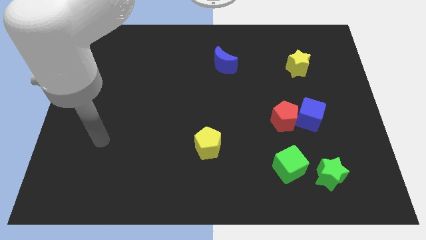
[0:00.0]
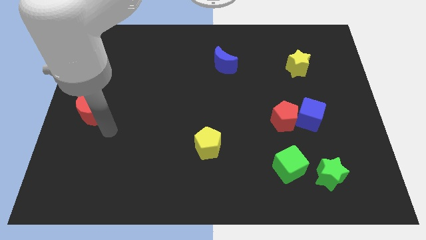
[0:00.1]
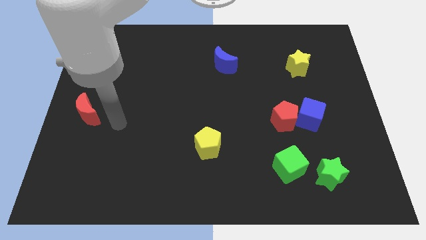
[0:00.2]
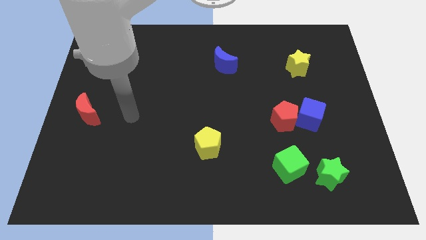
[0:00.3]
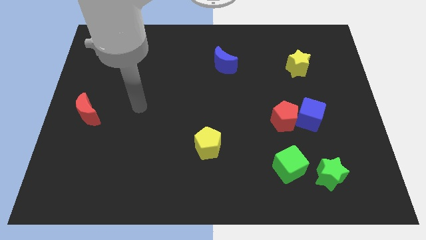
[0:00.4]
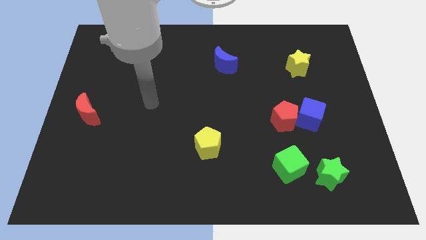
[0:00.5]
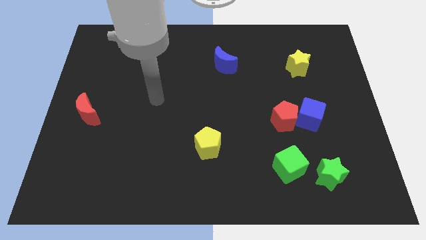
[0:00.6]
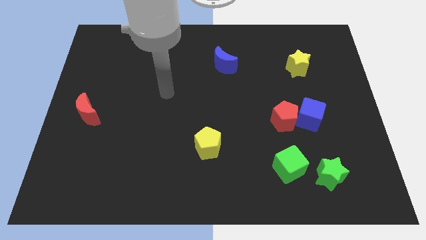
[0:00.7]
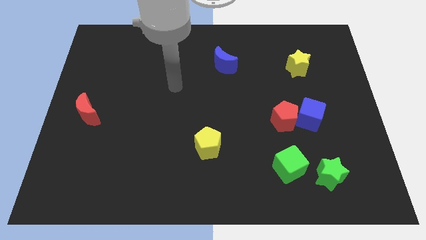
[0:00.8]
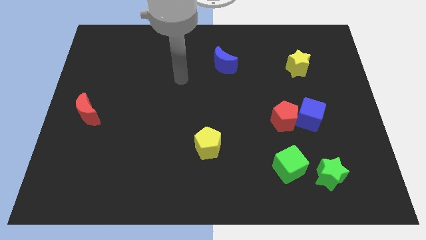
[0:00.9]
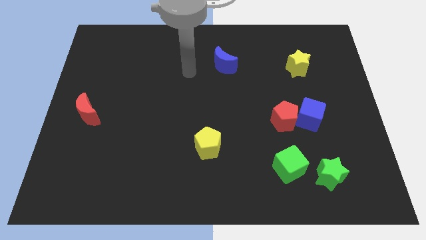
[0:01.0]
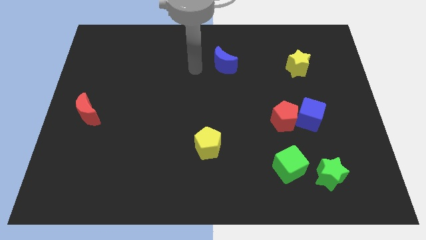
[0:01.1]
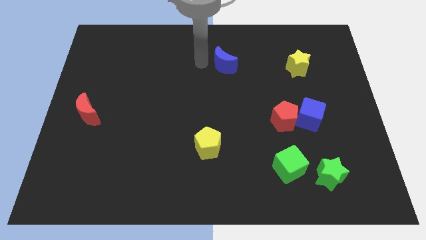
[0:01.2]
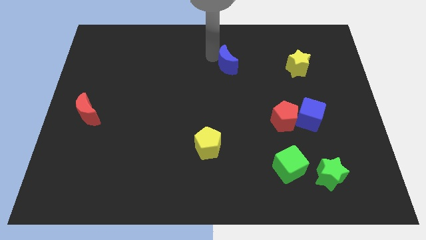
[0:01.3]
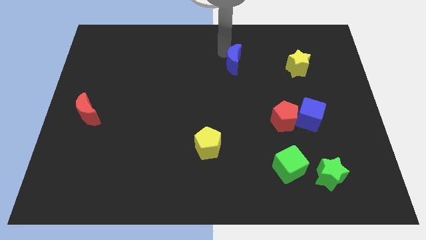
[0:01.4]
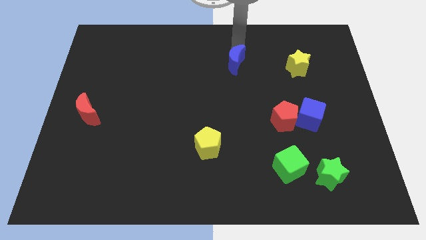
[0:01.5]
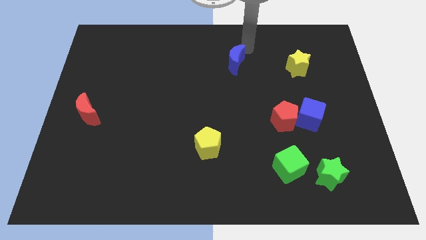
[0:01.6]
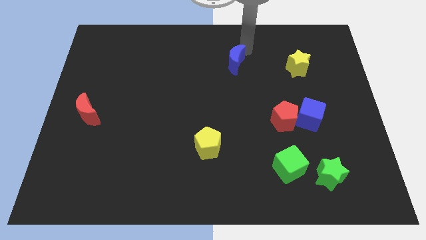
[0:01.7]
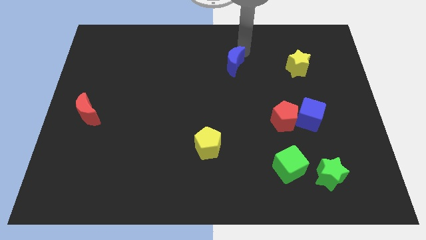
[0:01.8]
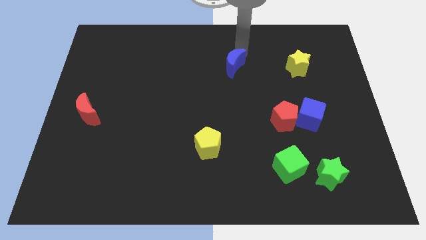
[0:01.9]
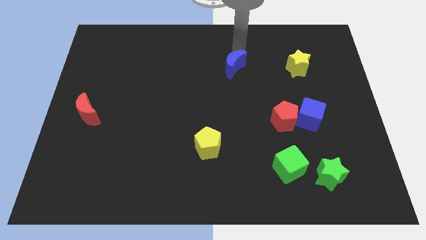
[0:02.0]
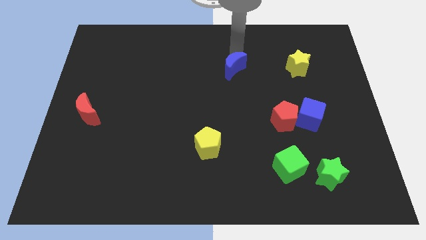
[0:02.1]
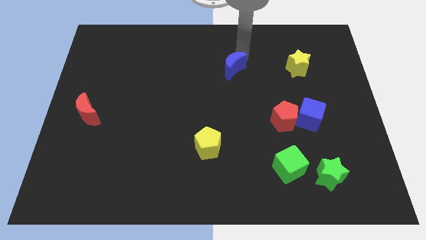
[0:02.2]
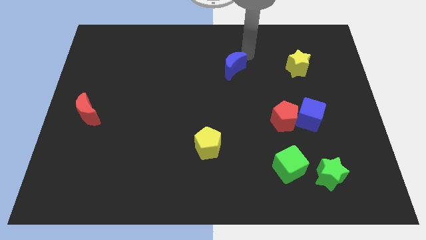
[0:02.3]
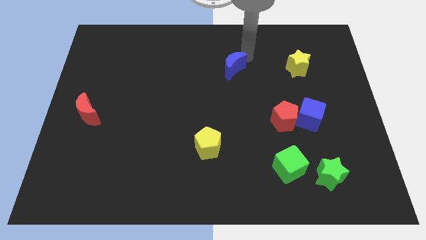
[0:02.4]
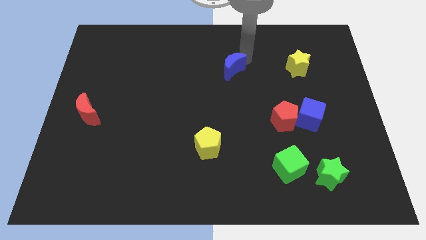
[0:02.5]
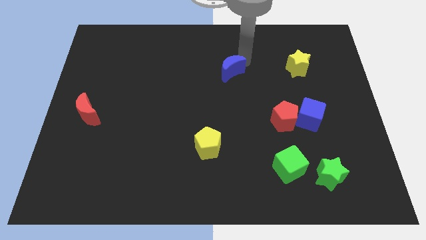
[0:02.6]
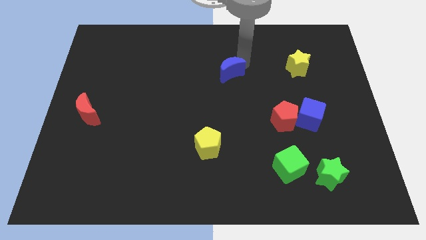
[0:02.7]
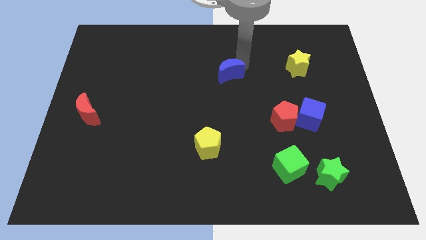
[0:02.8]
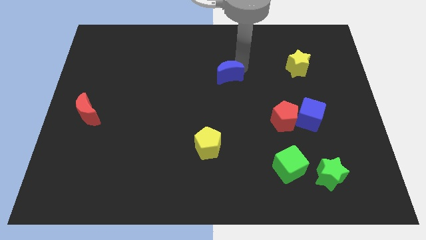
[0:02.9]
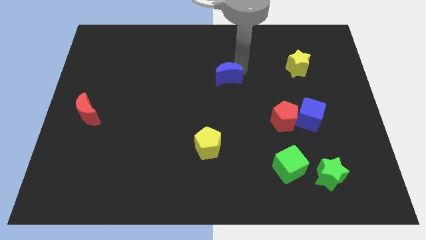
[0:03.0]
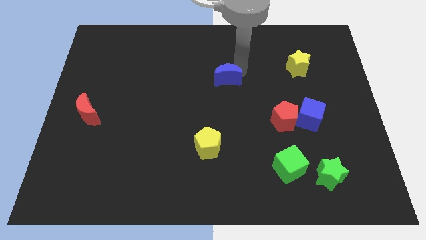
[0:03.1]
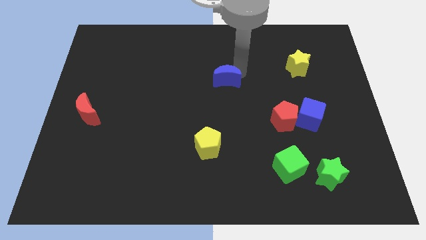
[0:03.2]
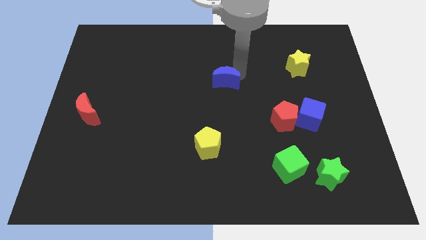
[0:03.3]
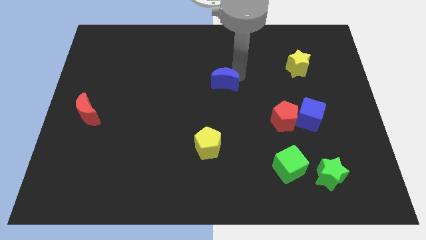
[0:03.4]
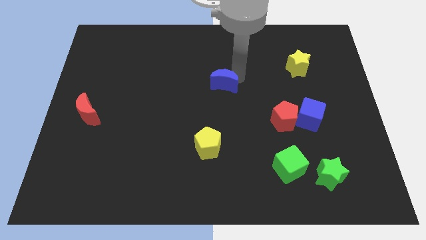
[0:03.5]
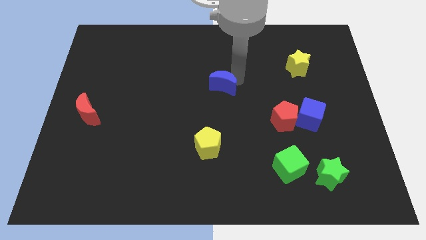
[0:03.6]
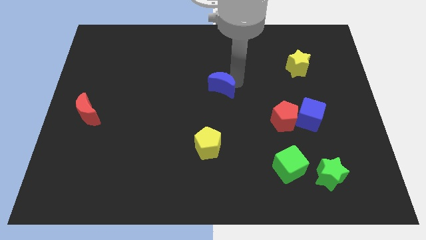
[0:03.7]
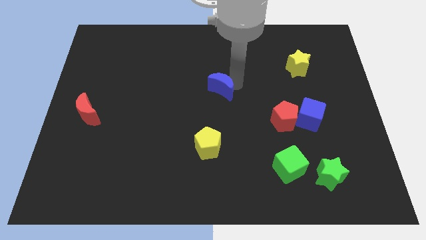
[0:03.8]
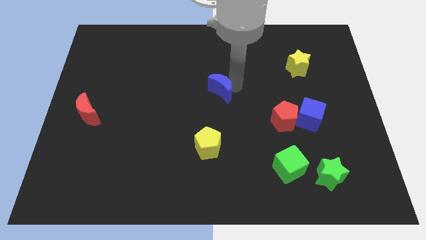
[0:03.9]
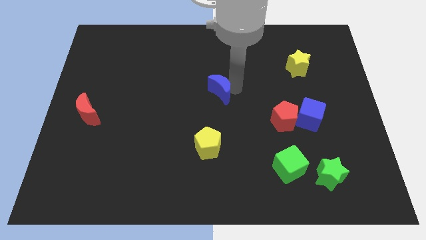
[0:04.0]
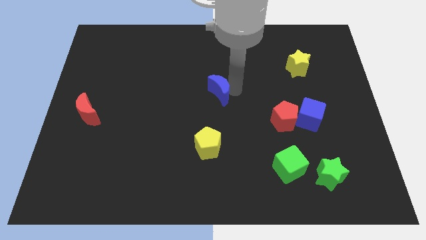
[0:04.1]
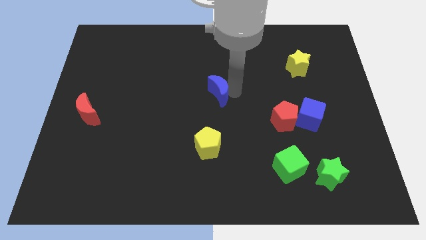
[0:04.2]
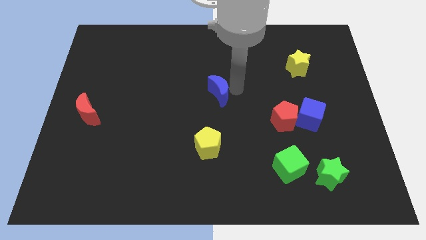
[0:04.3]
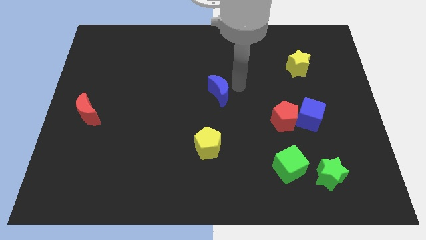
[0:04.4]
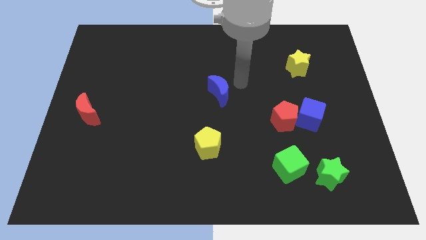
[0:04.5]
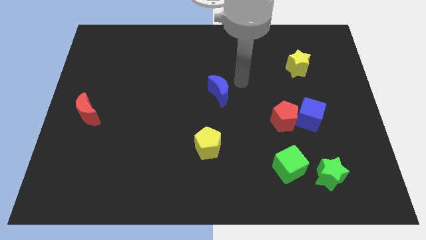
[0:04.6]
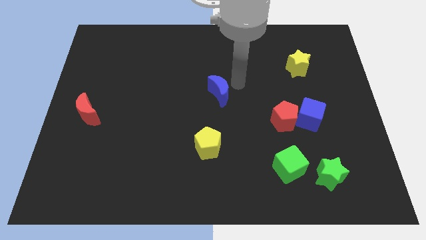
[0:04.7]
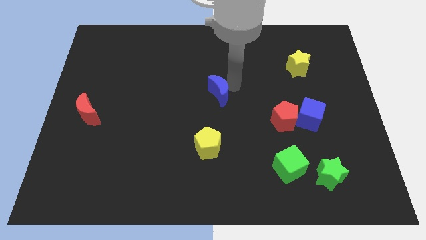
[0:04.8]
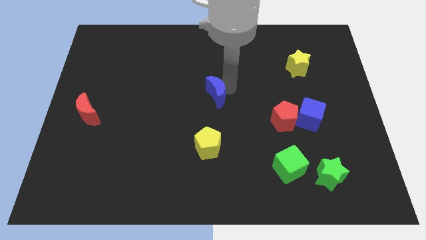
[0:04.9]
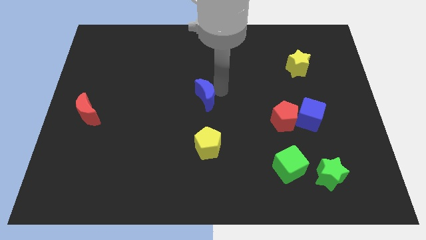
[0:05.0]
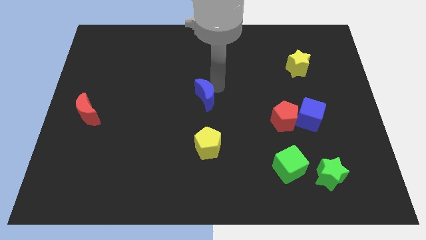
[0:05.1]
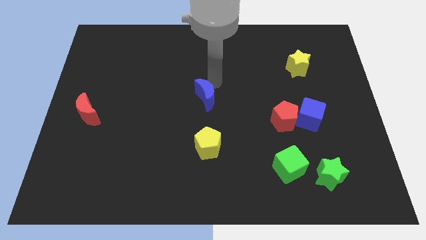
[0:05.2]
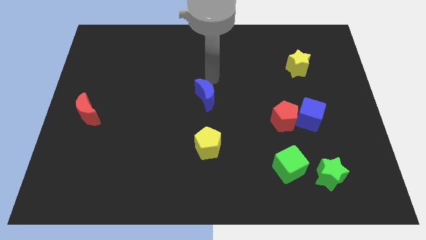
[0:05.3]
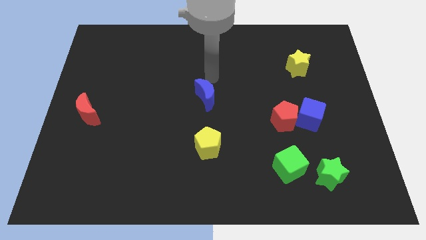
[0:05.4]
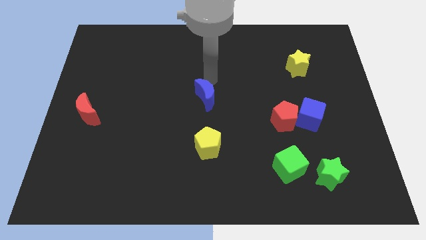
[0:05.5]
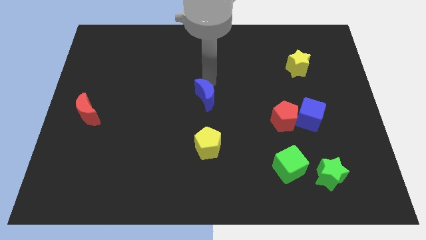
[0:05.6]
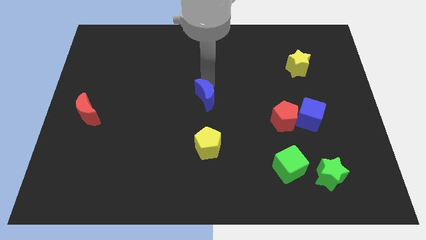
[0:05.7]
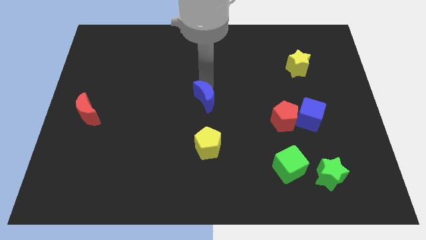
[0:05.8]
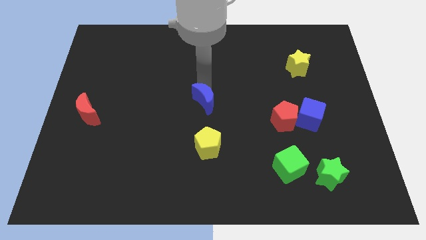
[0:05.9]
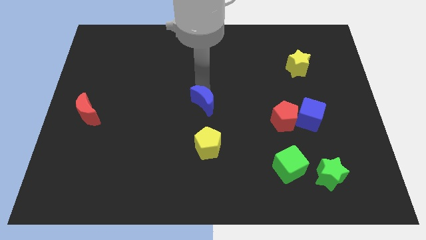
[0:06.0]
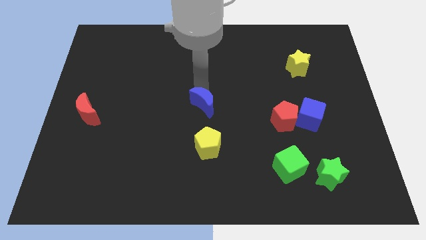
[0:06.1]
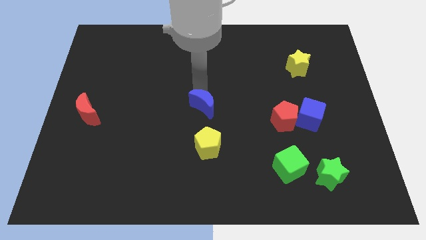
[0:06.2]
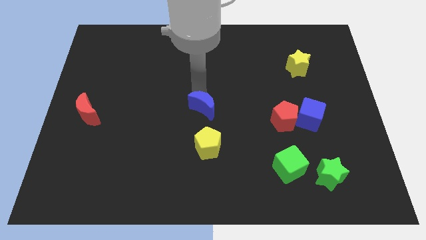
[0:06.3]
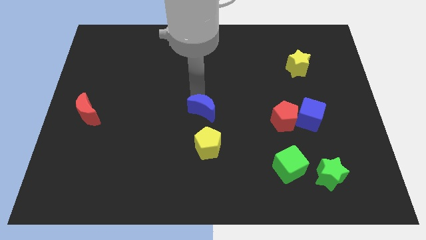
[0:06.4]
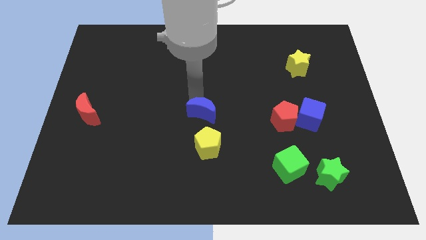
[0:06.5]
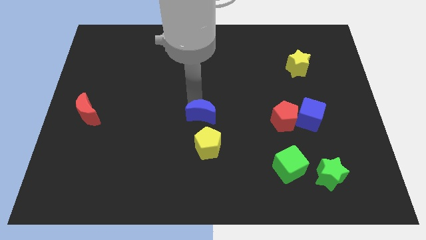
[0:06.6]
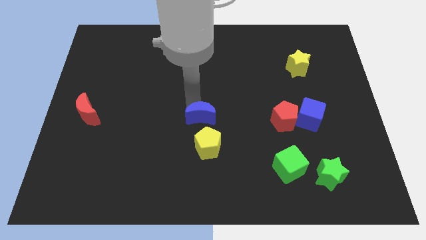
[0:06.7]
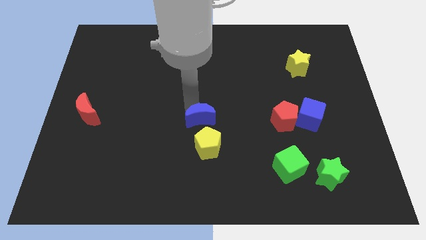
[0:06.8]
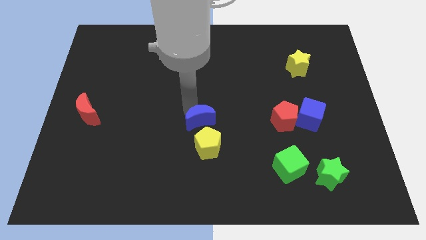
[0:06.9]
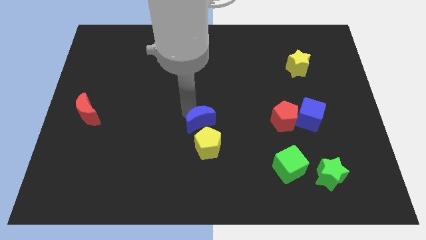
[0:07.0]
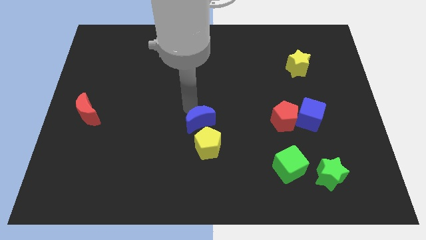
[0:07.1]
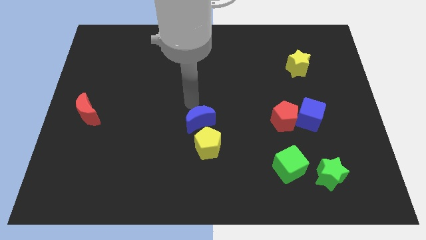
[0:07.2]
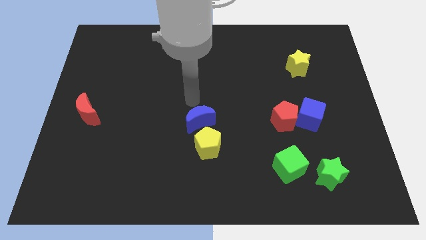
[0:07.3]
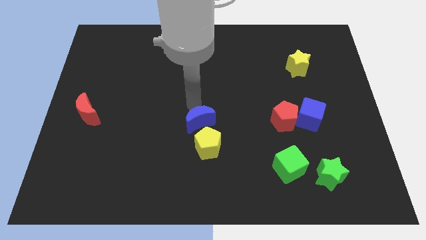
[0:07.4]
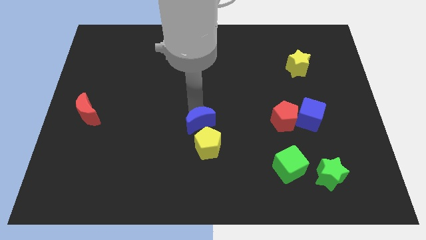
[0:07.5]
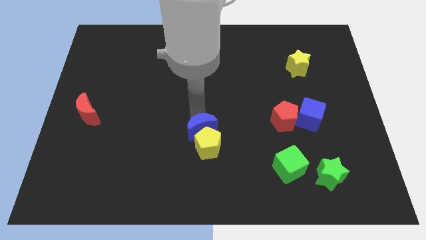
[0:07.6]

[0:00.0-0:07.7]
slide the blue moon close to the yellow pentagon

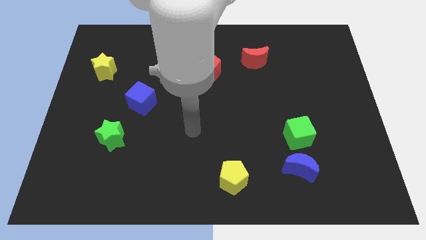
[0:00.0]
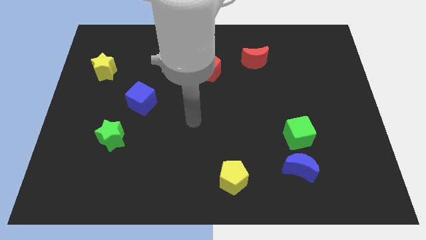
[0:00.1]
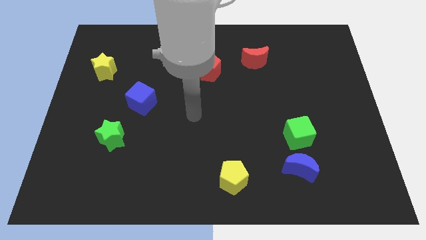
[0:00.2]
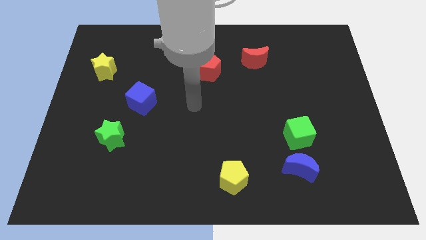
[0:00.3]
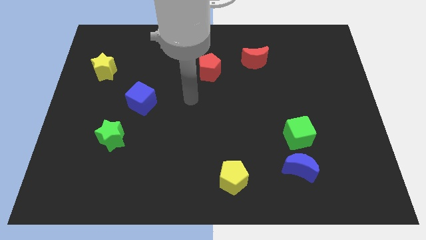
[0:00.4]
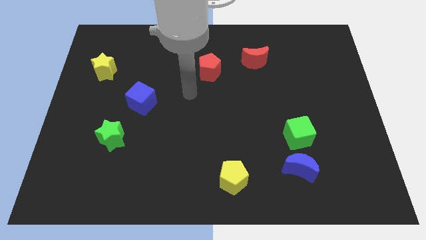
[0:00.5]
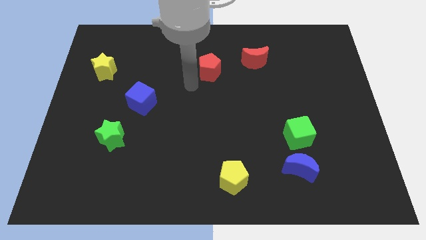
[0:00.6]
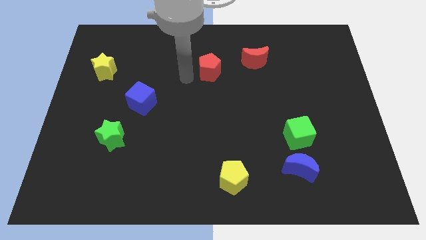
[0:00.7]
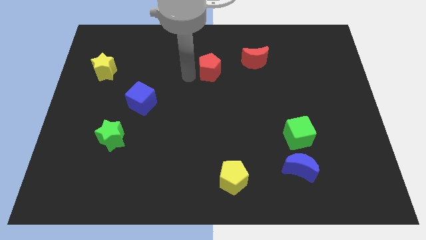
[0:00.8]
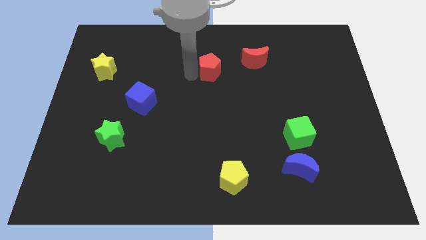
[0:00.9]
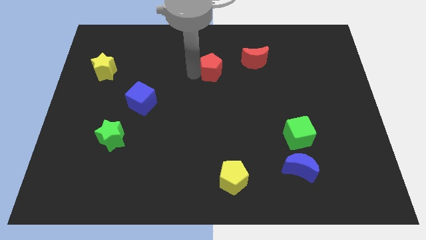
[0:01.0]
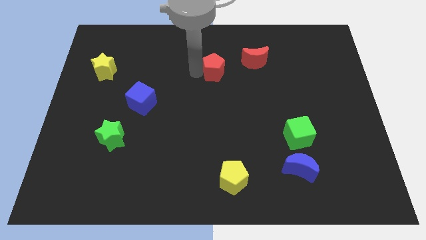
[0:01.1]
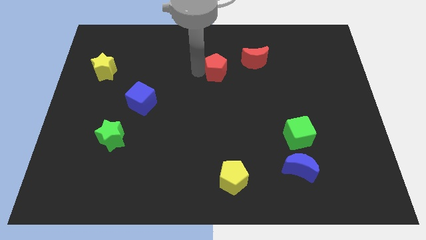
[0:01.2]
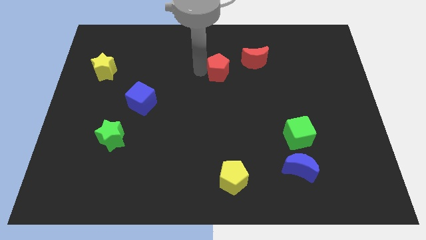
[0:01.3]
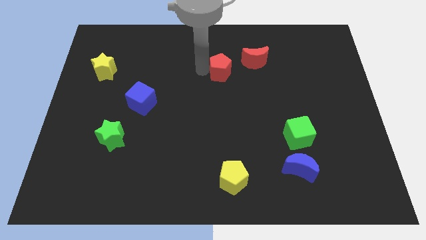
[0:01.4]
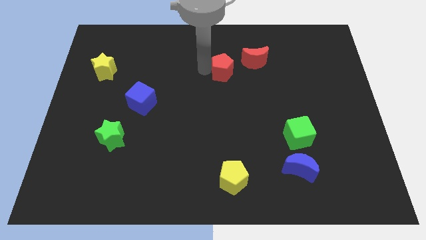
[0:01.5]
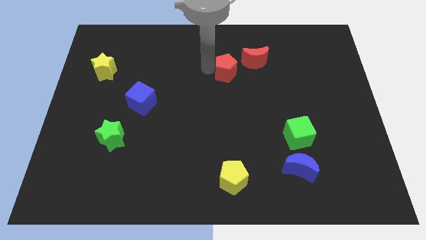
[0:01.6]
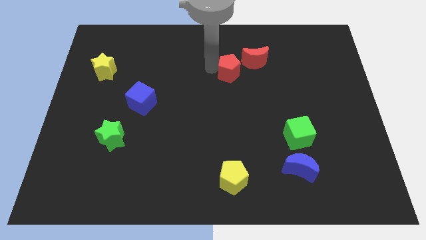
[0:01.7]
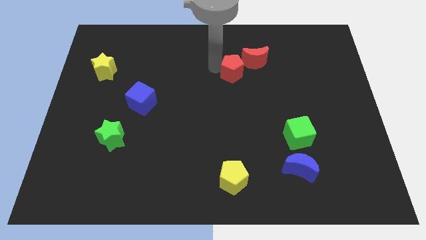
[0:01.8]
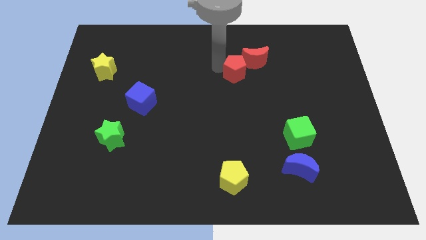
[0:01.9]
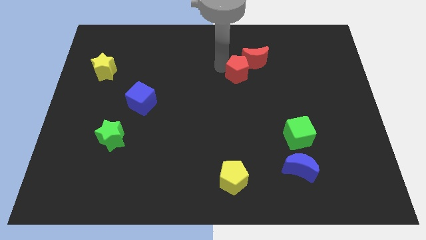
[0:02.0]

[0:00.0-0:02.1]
push the red pentagon to the red moon
